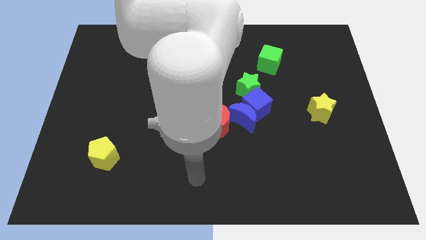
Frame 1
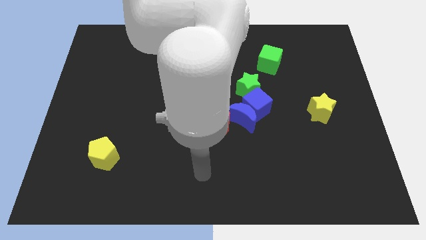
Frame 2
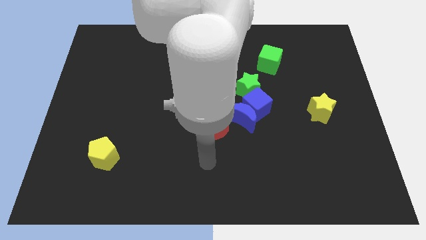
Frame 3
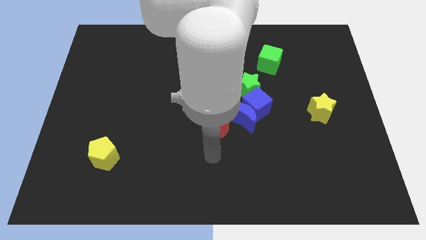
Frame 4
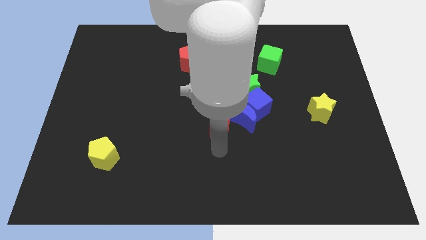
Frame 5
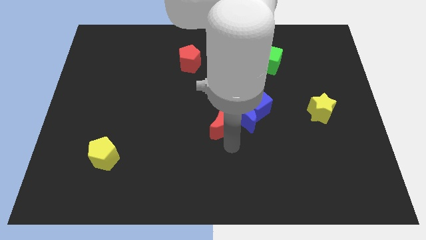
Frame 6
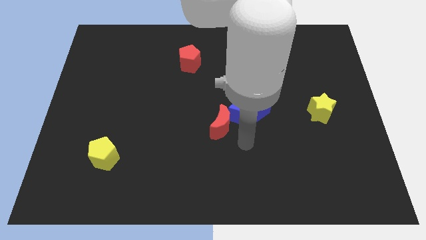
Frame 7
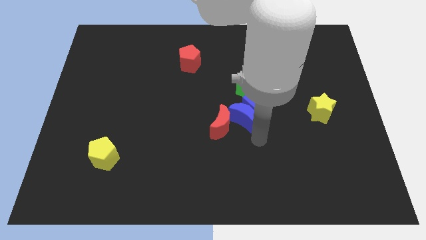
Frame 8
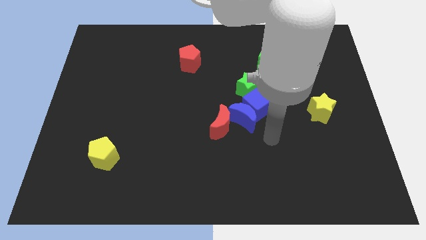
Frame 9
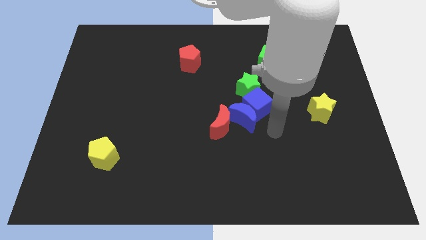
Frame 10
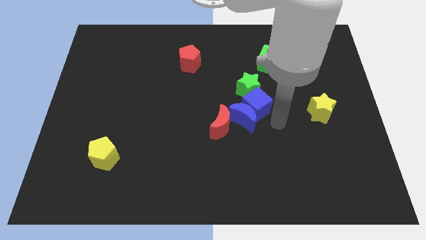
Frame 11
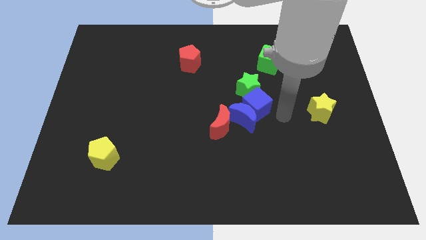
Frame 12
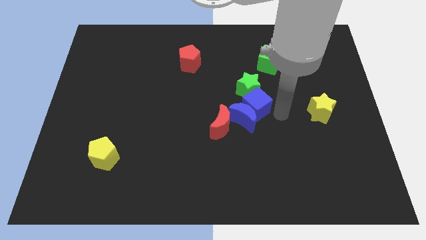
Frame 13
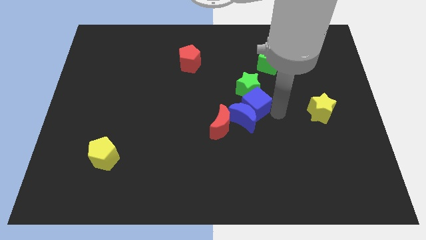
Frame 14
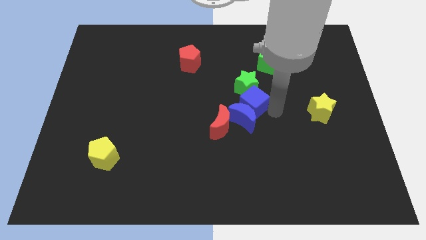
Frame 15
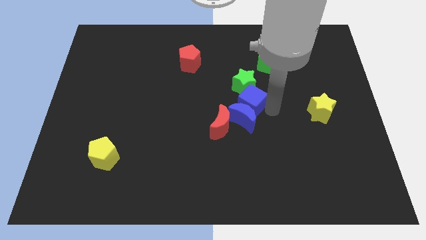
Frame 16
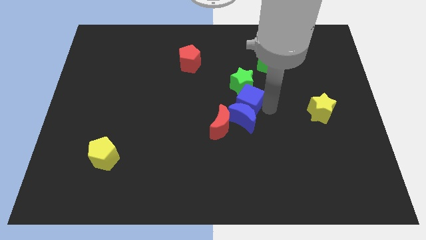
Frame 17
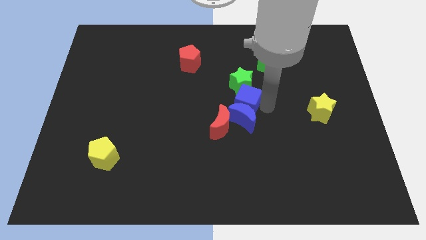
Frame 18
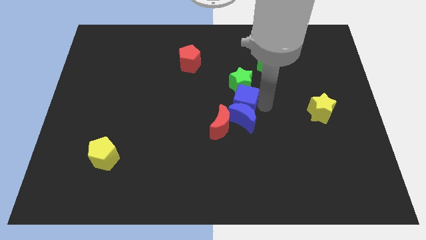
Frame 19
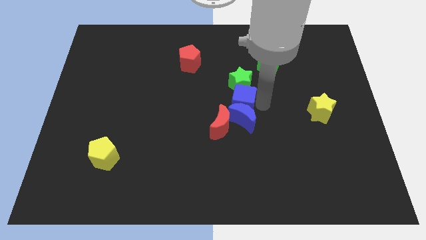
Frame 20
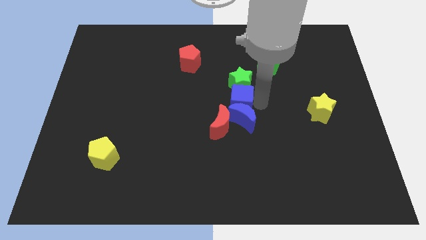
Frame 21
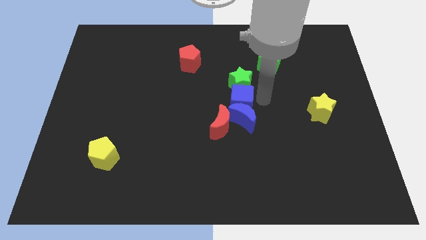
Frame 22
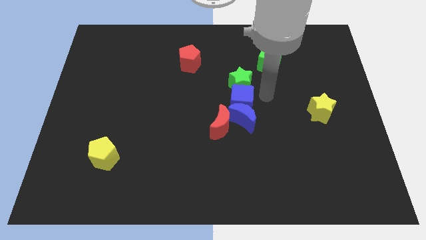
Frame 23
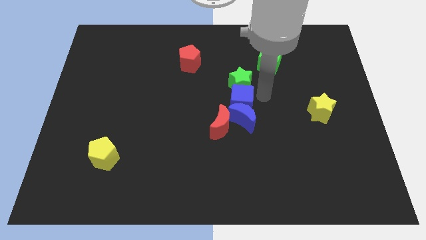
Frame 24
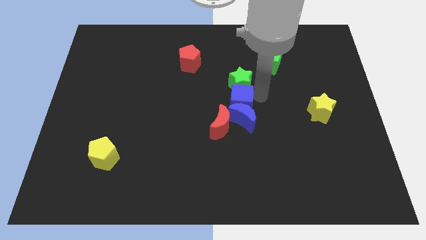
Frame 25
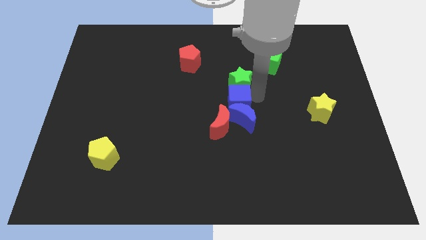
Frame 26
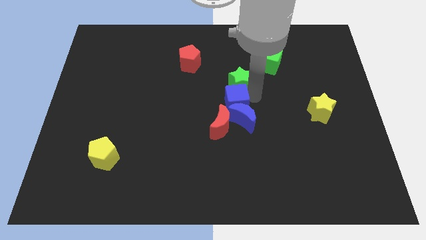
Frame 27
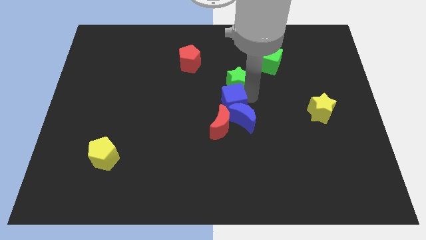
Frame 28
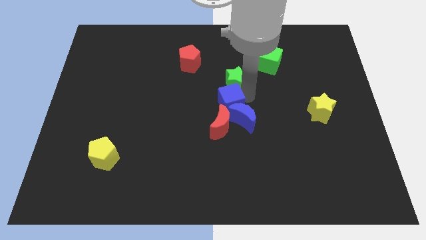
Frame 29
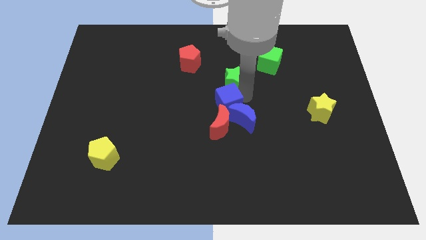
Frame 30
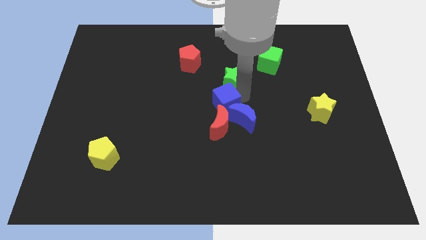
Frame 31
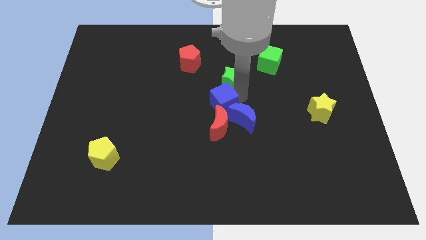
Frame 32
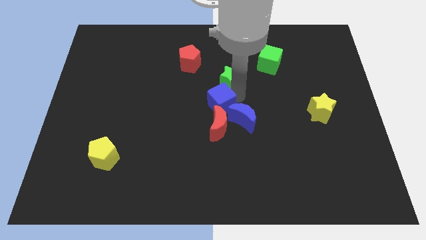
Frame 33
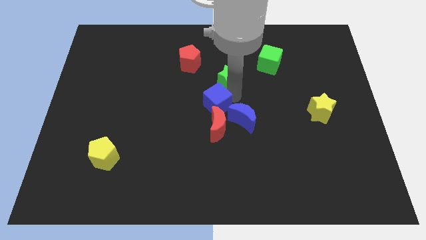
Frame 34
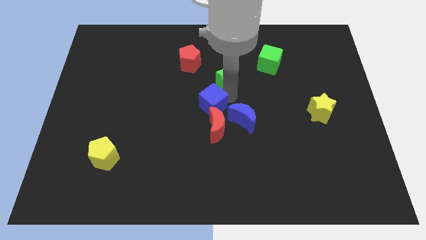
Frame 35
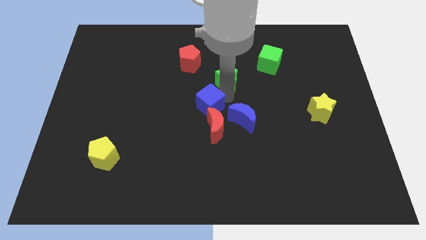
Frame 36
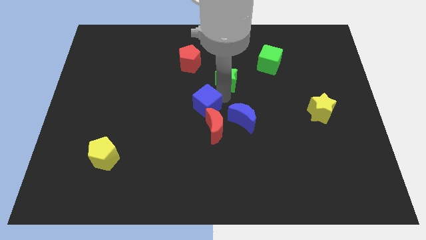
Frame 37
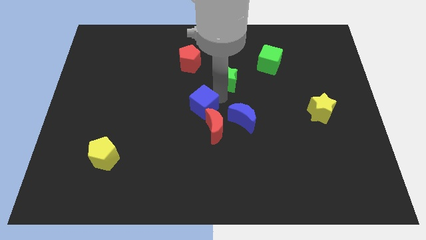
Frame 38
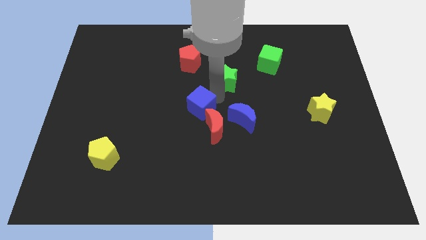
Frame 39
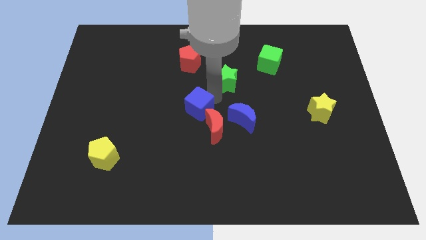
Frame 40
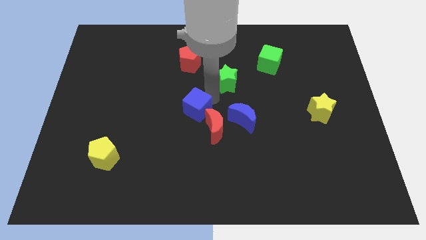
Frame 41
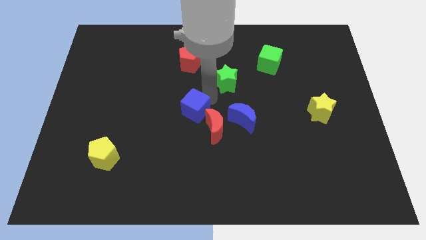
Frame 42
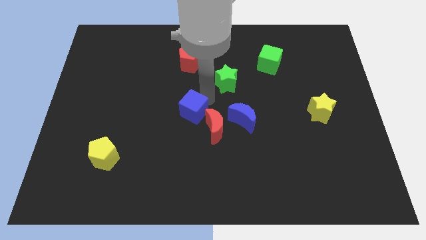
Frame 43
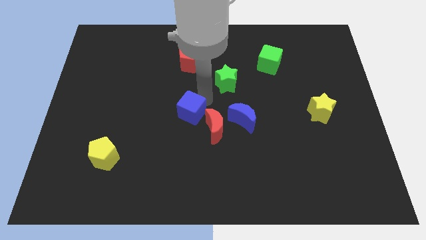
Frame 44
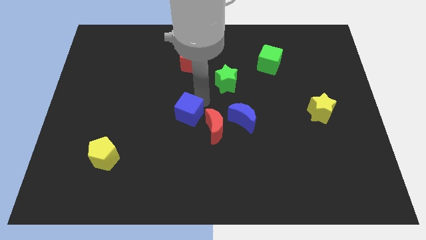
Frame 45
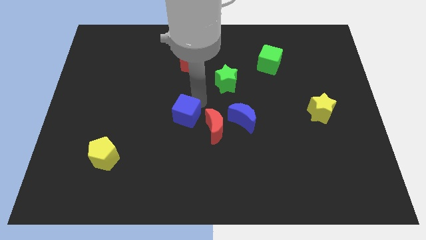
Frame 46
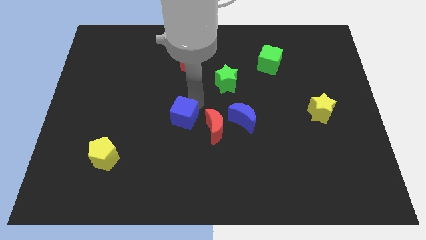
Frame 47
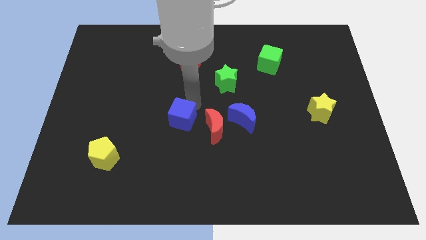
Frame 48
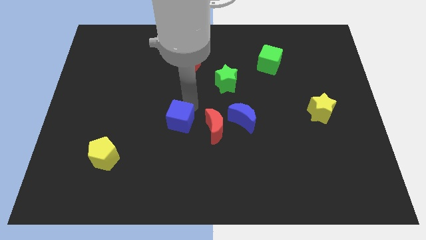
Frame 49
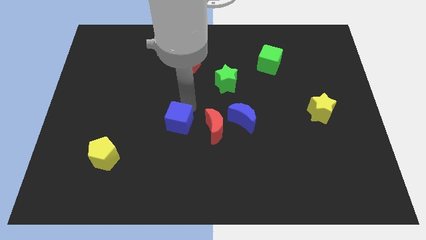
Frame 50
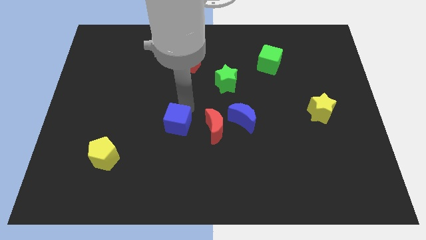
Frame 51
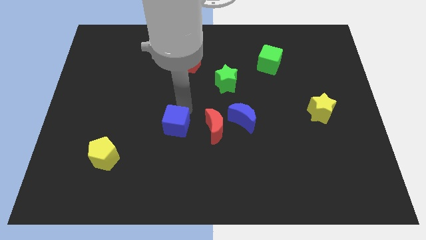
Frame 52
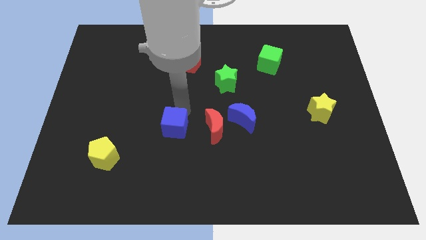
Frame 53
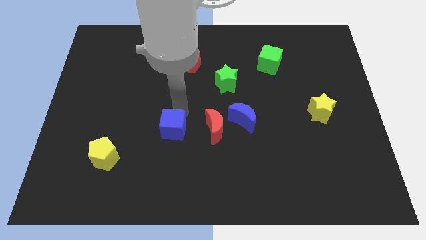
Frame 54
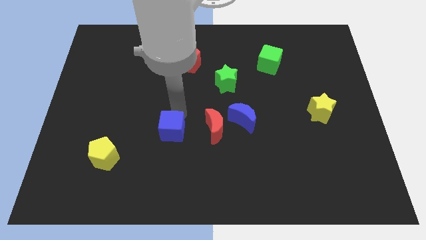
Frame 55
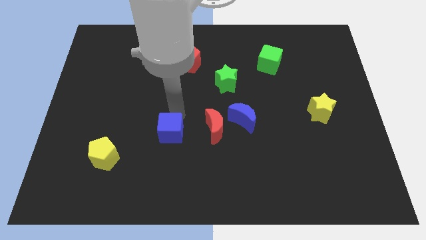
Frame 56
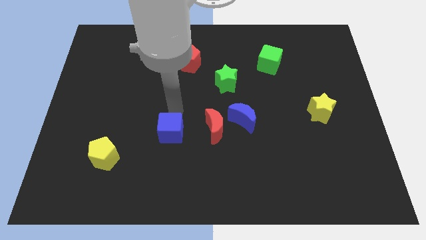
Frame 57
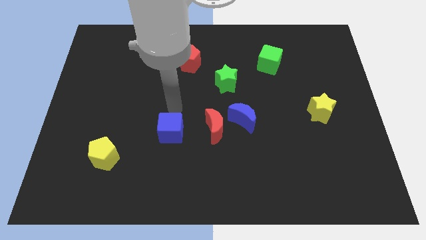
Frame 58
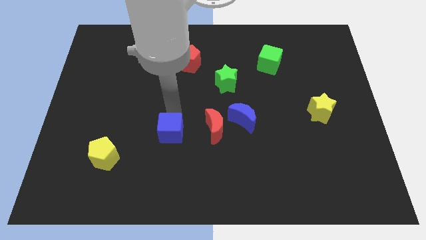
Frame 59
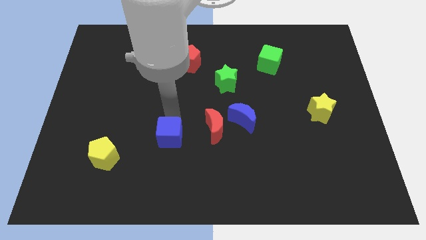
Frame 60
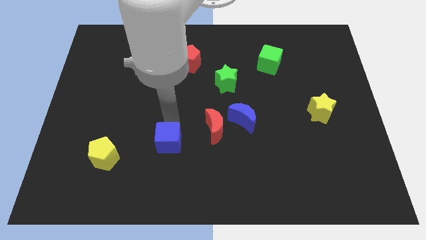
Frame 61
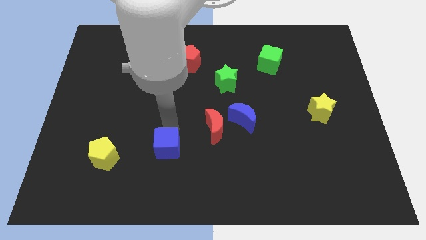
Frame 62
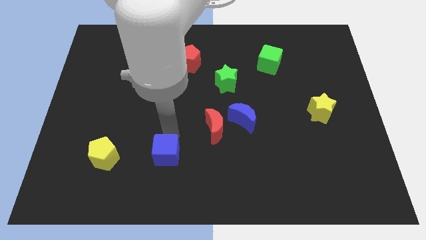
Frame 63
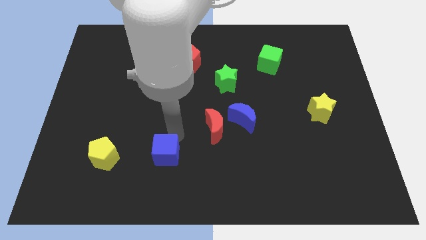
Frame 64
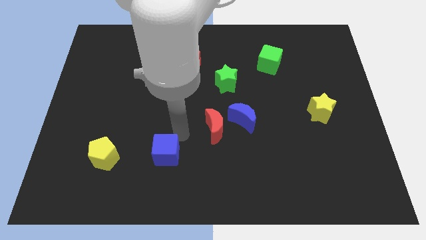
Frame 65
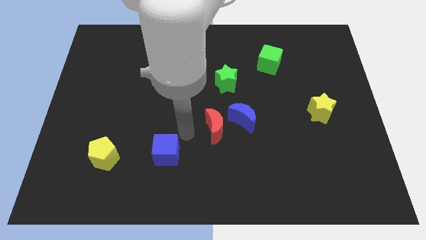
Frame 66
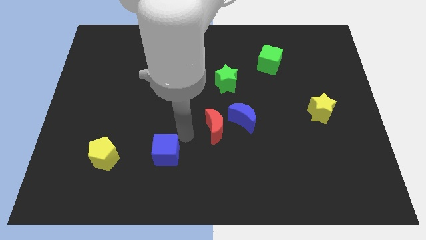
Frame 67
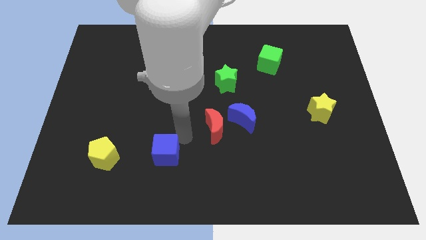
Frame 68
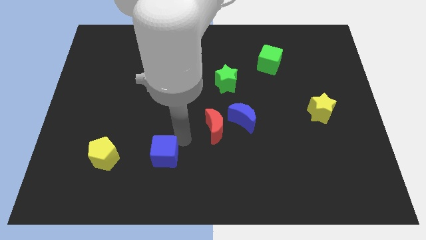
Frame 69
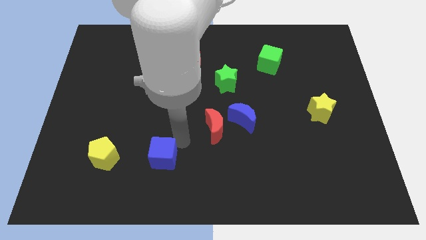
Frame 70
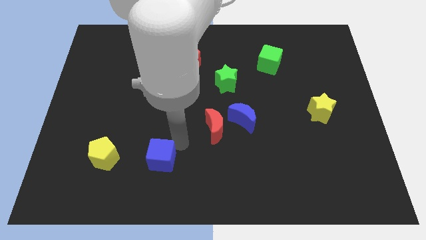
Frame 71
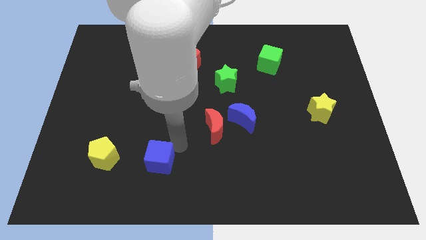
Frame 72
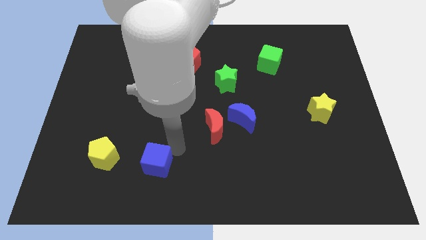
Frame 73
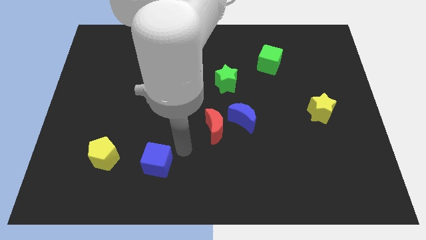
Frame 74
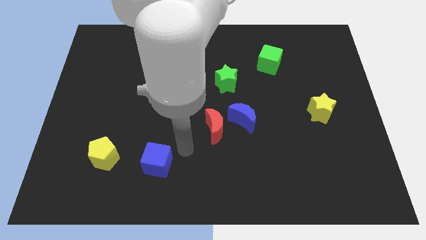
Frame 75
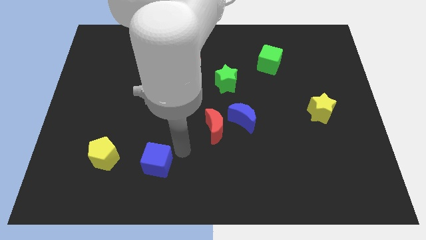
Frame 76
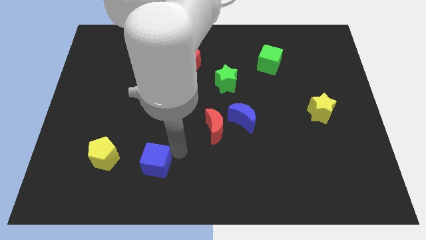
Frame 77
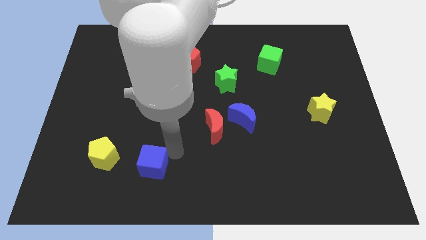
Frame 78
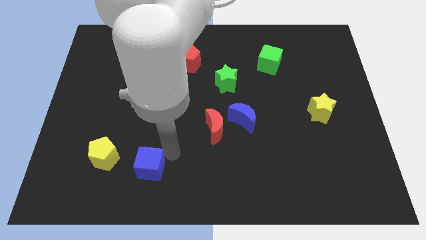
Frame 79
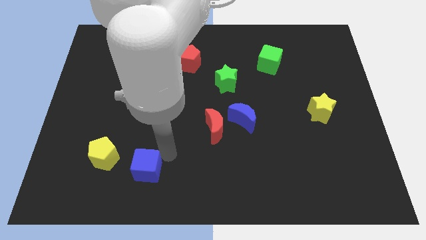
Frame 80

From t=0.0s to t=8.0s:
put the blue cube to the bottom right of the yellow pentagon
